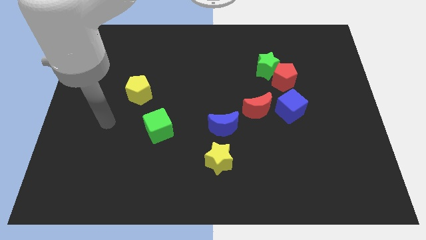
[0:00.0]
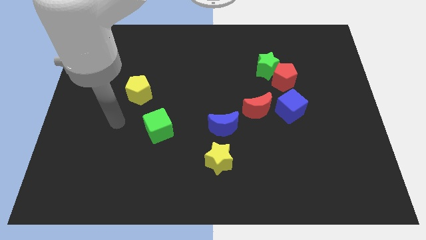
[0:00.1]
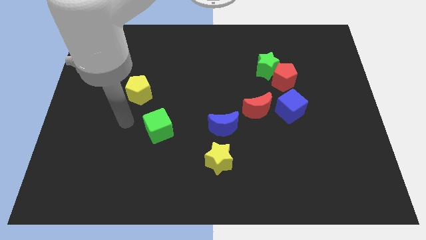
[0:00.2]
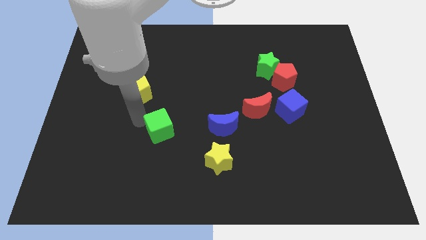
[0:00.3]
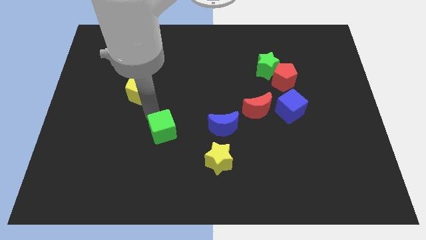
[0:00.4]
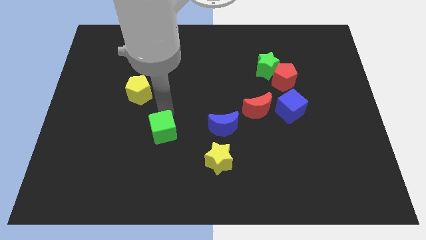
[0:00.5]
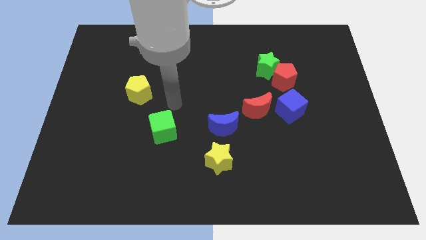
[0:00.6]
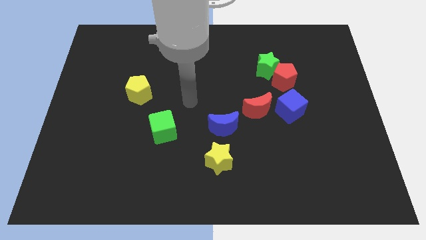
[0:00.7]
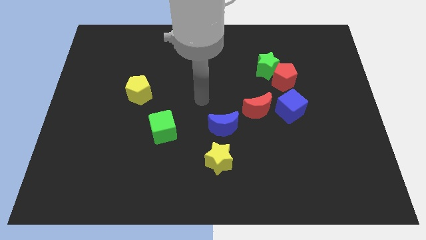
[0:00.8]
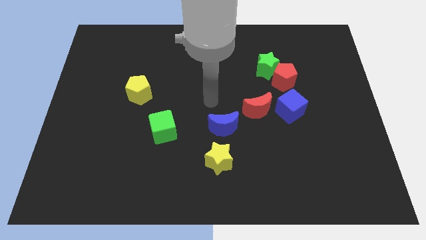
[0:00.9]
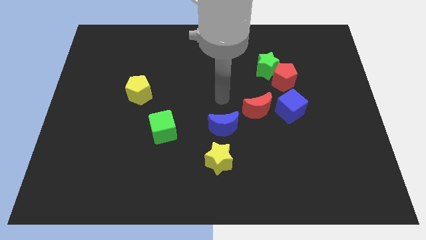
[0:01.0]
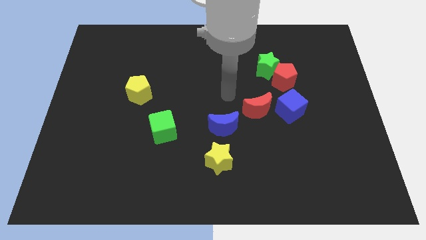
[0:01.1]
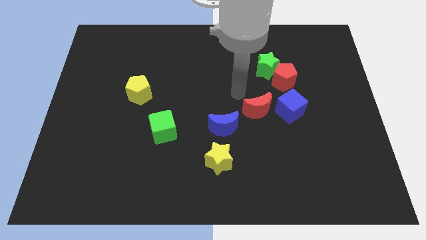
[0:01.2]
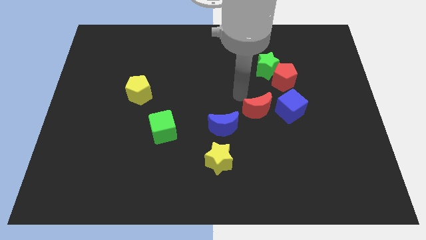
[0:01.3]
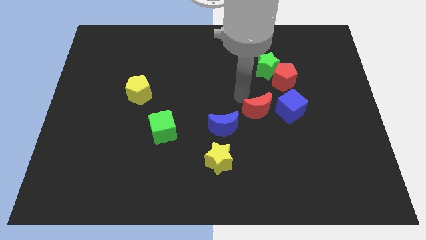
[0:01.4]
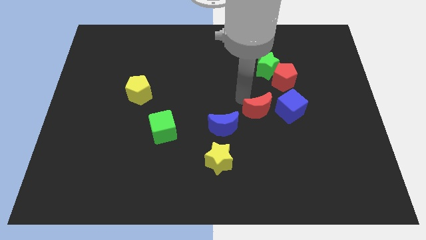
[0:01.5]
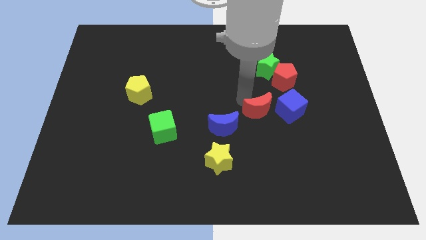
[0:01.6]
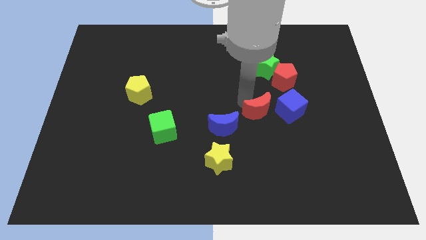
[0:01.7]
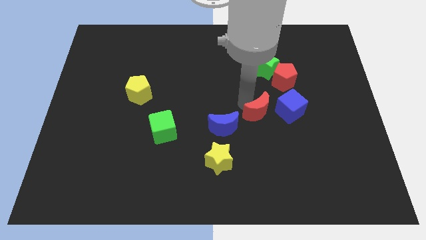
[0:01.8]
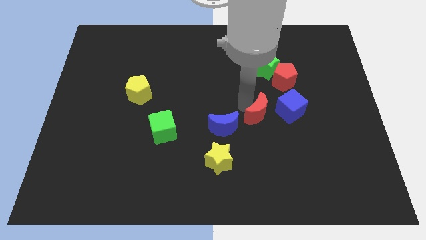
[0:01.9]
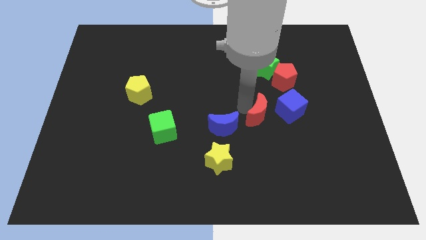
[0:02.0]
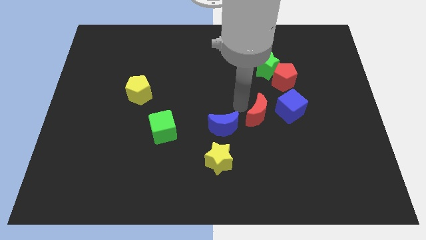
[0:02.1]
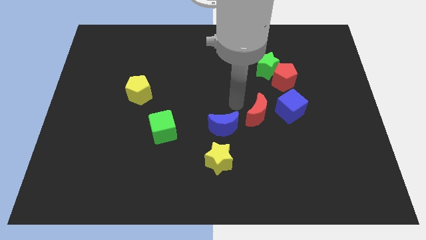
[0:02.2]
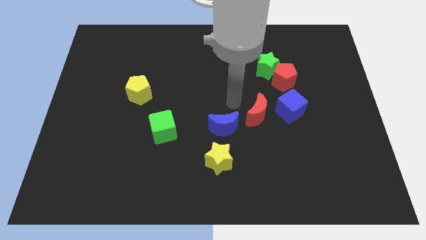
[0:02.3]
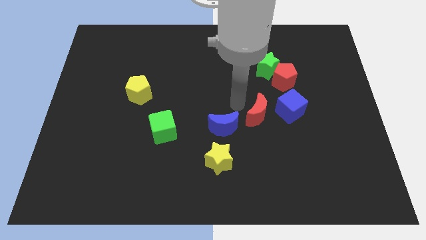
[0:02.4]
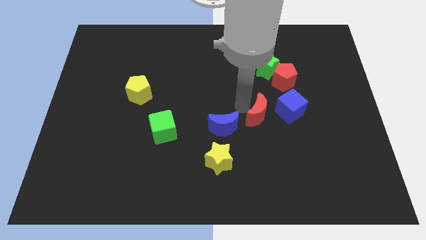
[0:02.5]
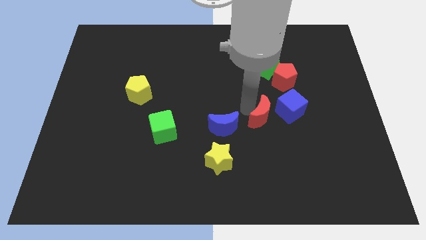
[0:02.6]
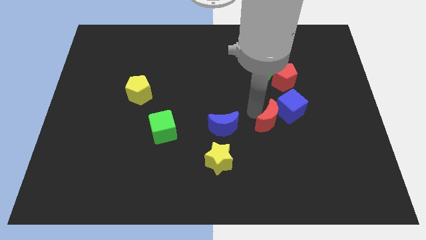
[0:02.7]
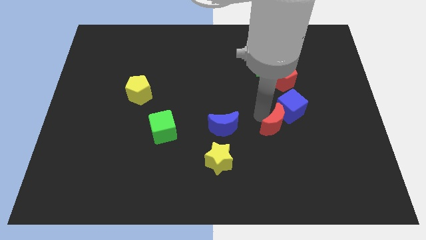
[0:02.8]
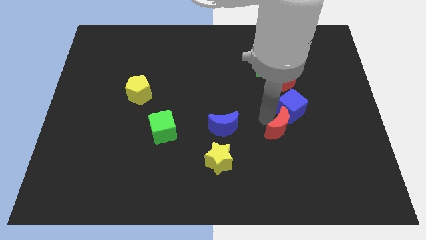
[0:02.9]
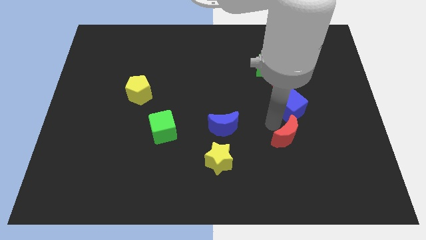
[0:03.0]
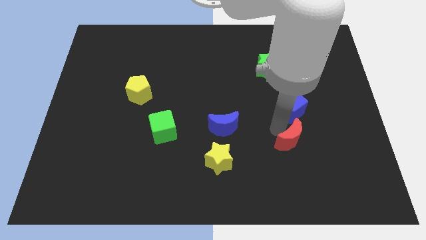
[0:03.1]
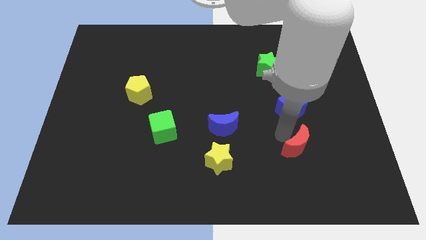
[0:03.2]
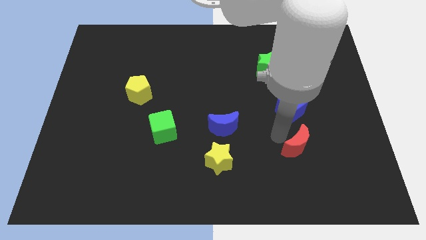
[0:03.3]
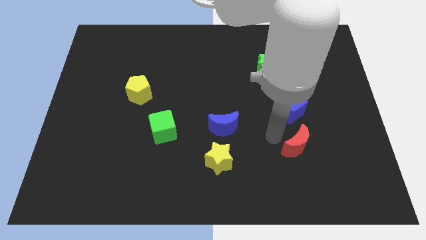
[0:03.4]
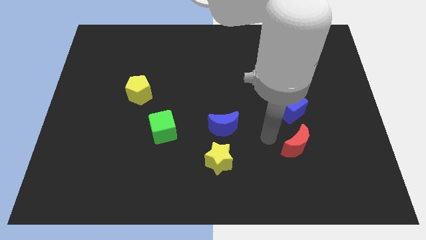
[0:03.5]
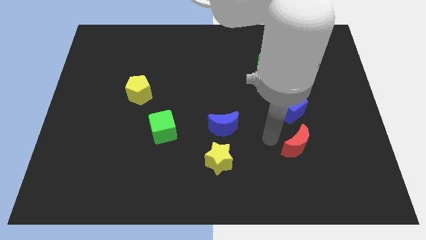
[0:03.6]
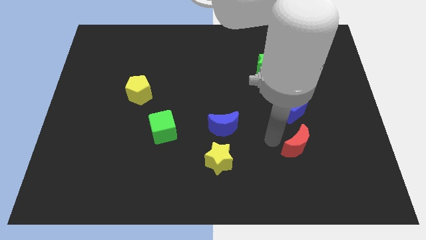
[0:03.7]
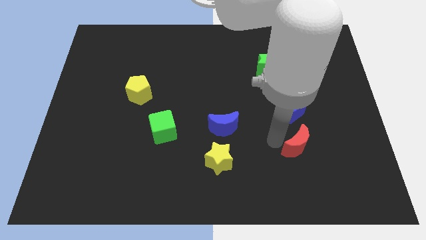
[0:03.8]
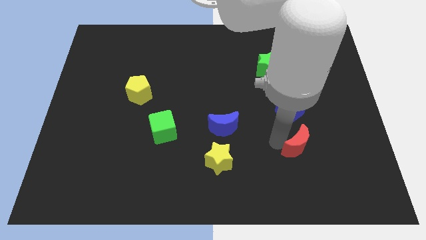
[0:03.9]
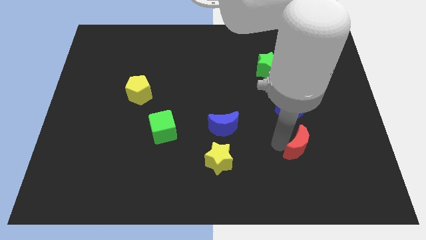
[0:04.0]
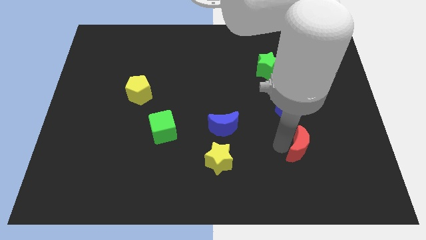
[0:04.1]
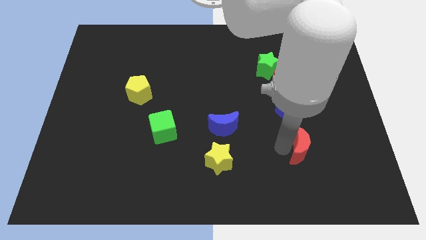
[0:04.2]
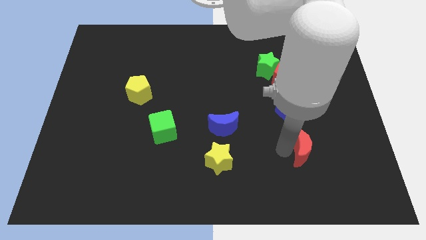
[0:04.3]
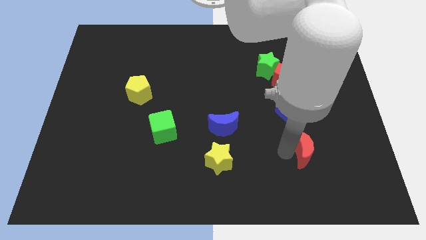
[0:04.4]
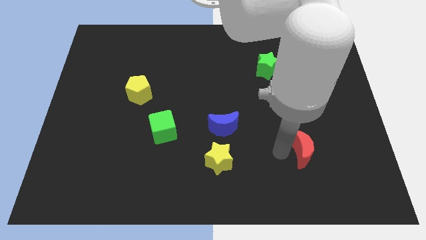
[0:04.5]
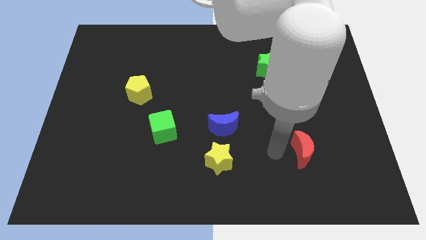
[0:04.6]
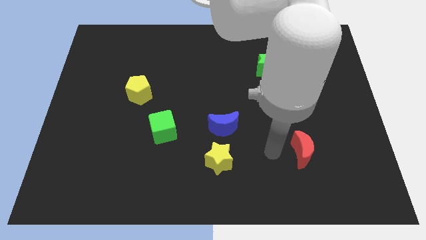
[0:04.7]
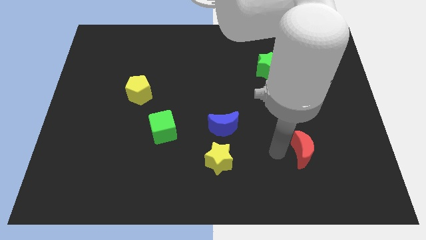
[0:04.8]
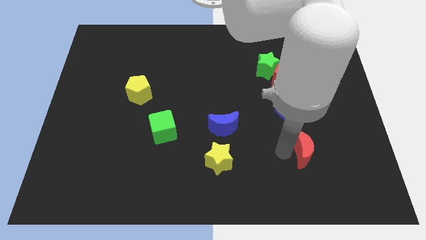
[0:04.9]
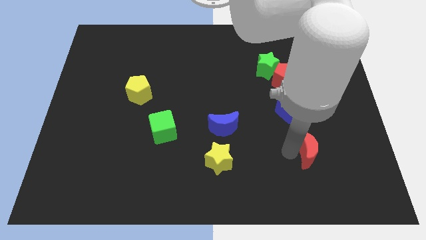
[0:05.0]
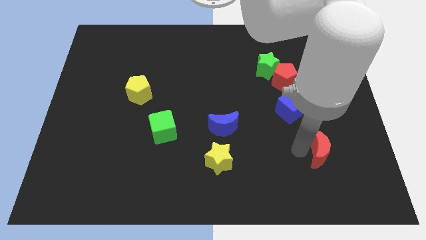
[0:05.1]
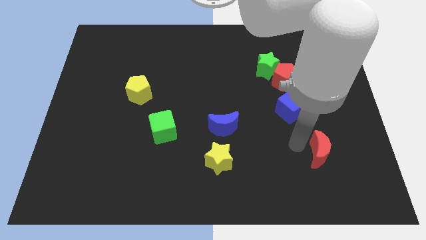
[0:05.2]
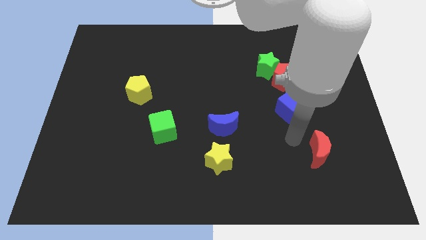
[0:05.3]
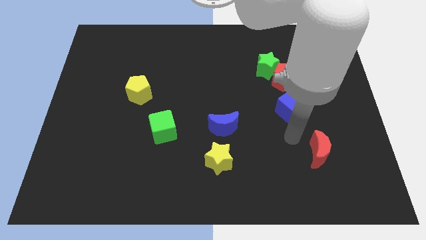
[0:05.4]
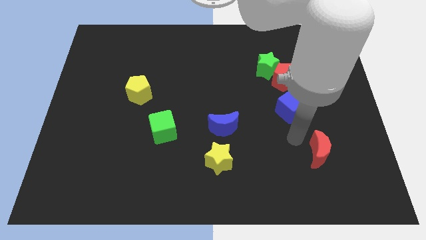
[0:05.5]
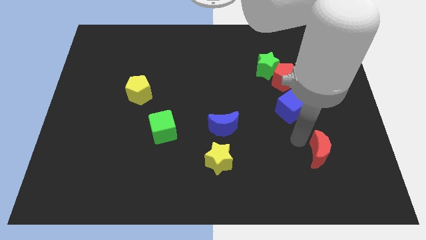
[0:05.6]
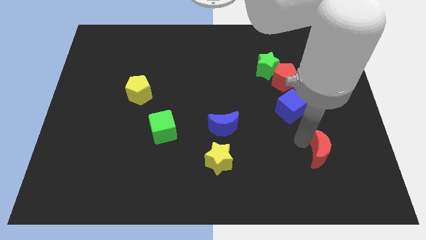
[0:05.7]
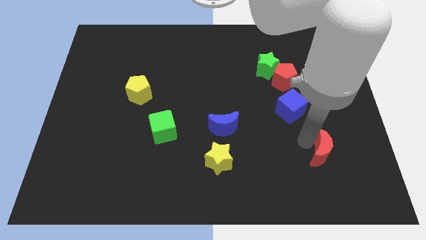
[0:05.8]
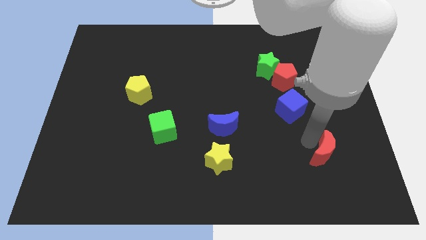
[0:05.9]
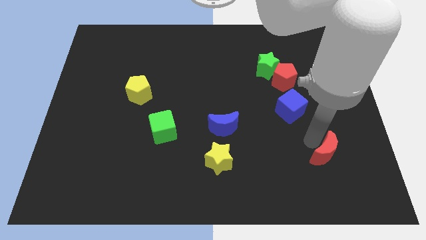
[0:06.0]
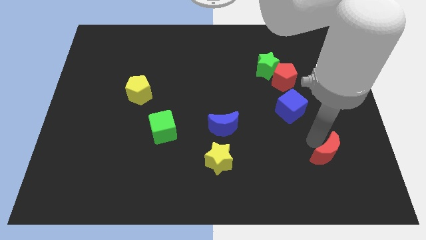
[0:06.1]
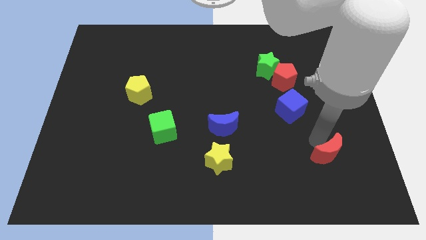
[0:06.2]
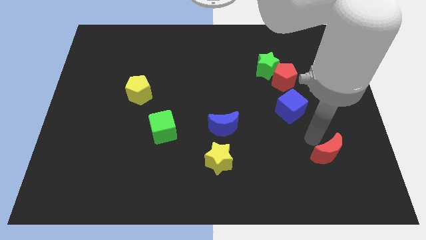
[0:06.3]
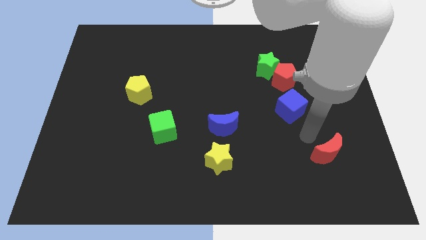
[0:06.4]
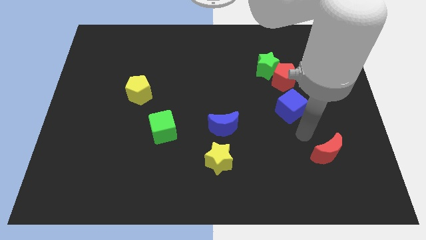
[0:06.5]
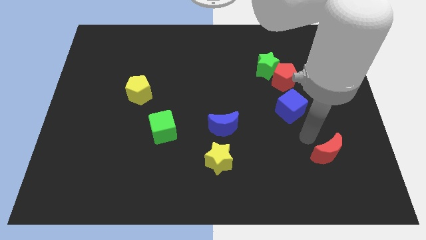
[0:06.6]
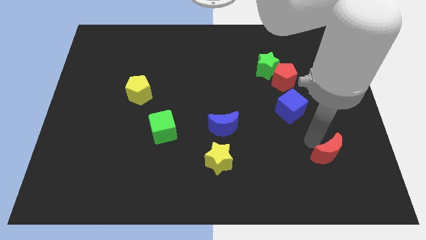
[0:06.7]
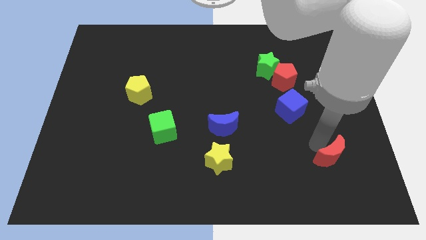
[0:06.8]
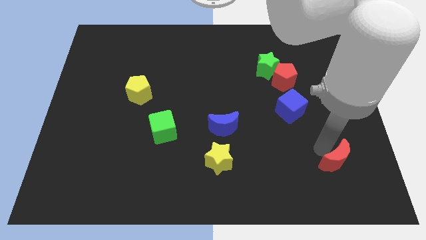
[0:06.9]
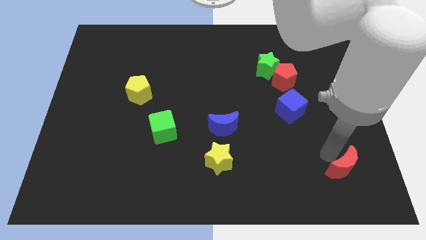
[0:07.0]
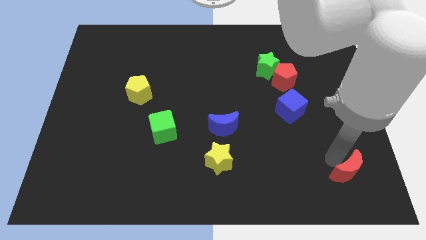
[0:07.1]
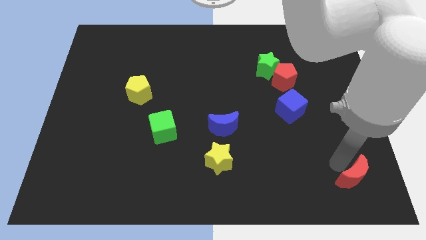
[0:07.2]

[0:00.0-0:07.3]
push the red moon to the bottom right corner
